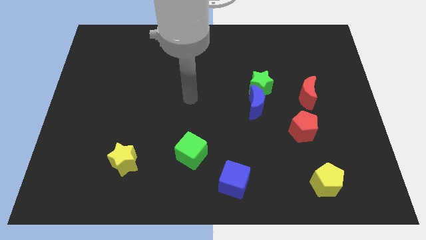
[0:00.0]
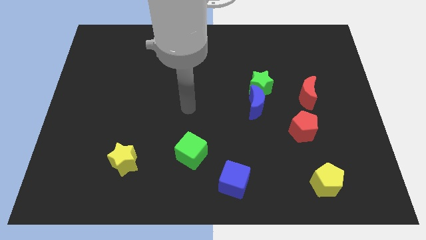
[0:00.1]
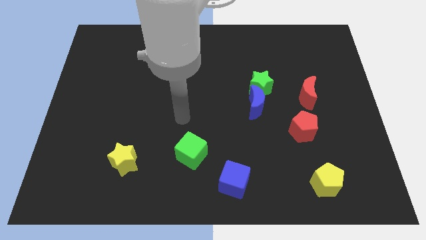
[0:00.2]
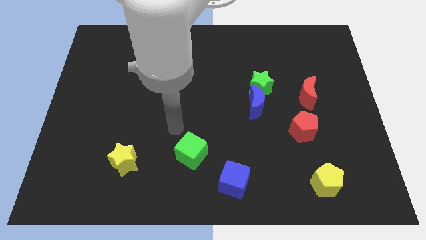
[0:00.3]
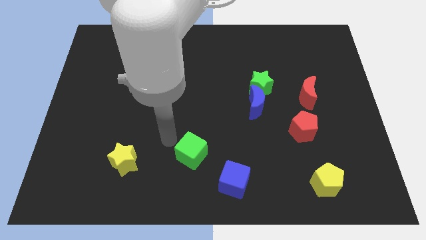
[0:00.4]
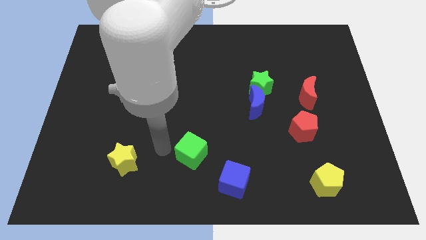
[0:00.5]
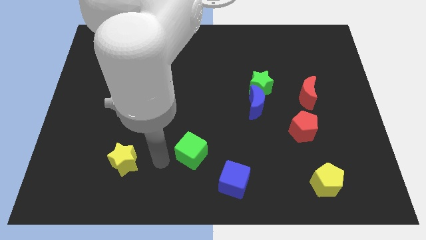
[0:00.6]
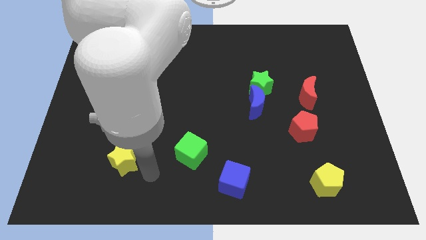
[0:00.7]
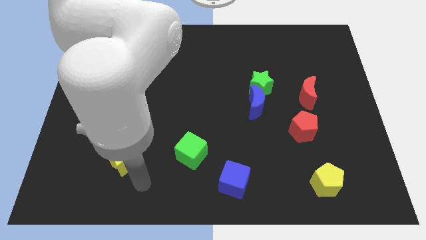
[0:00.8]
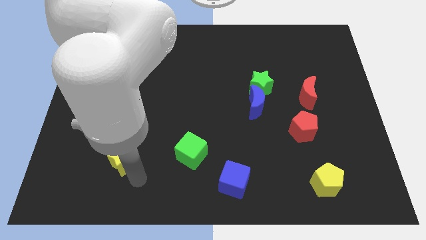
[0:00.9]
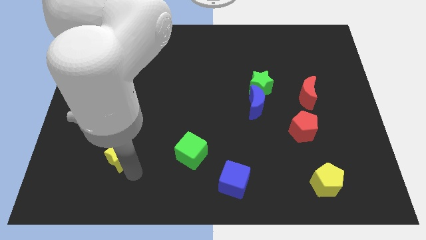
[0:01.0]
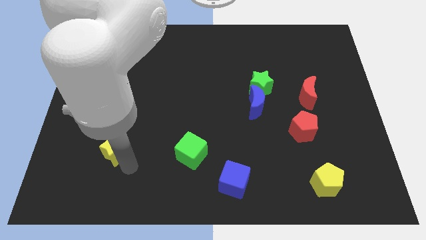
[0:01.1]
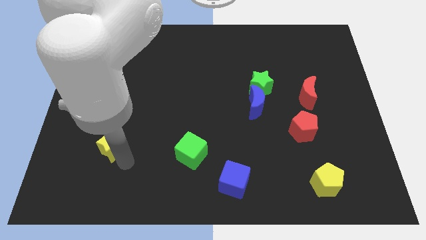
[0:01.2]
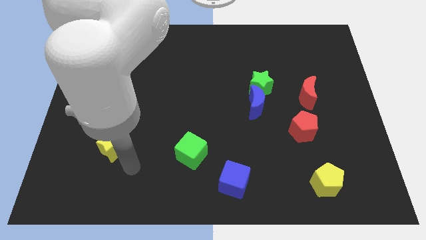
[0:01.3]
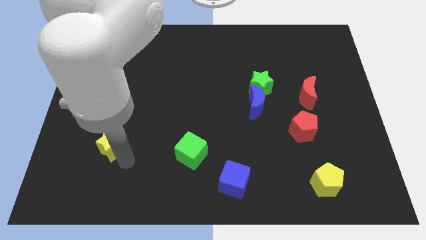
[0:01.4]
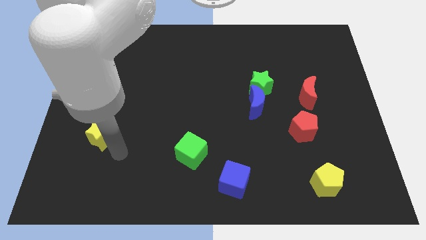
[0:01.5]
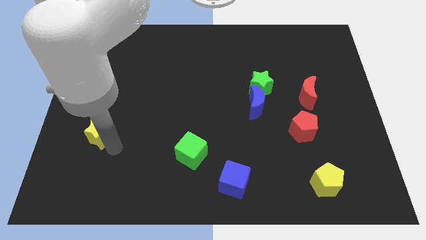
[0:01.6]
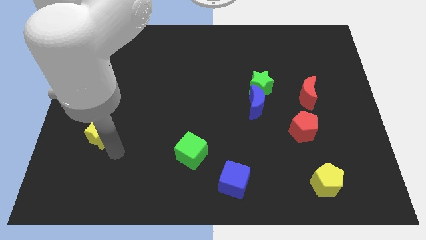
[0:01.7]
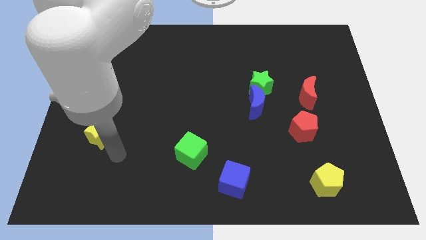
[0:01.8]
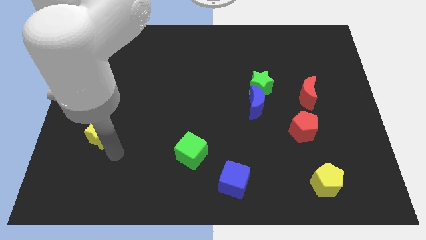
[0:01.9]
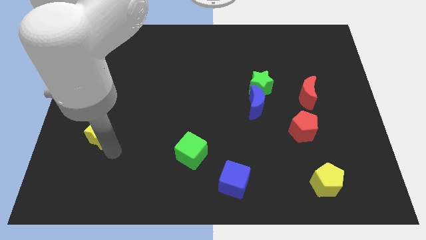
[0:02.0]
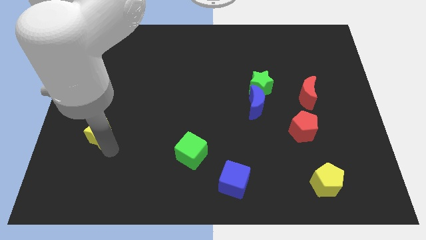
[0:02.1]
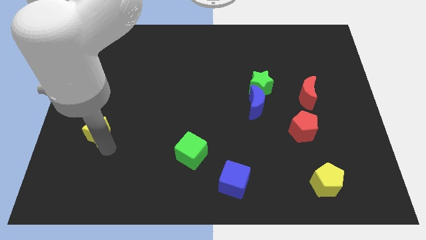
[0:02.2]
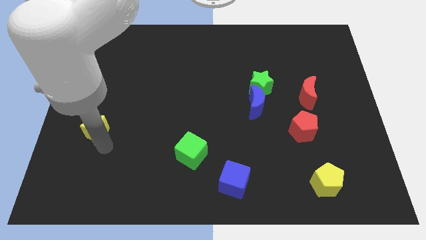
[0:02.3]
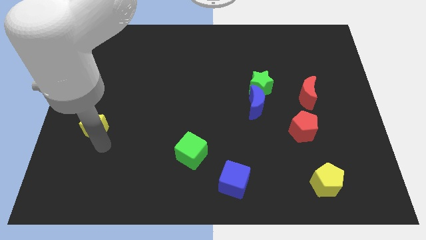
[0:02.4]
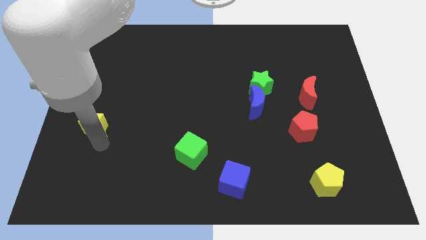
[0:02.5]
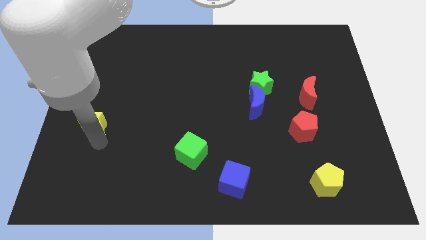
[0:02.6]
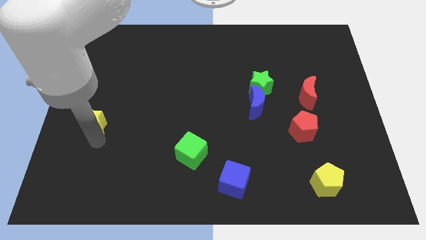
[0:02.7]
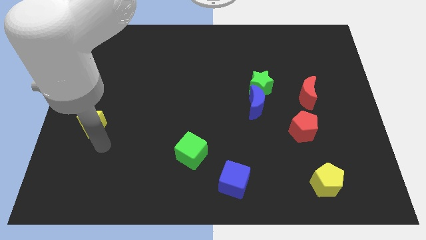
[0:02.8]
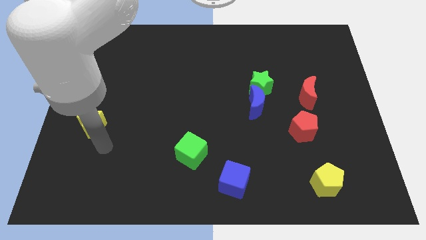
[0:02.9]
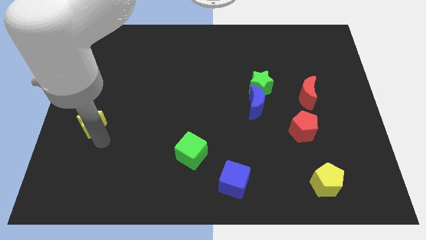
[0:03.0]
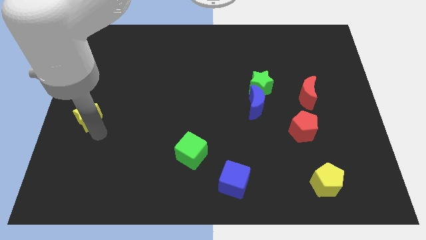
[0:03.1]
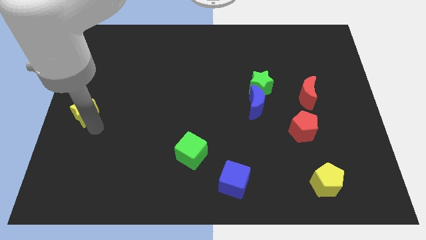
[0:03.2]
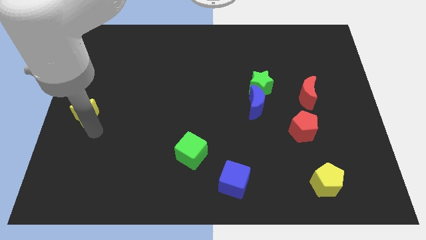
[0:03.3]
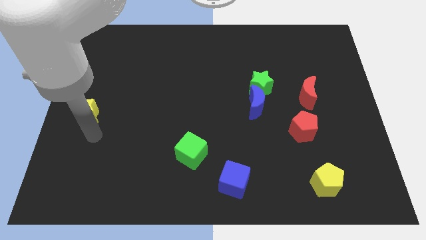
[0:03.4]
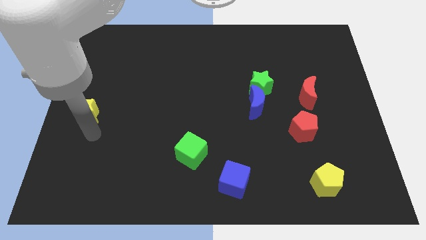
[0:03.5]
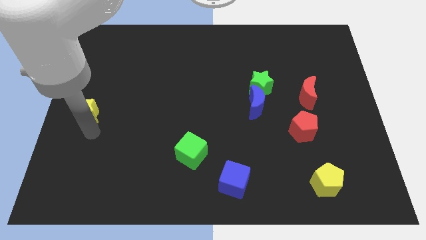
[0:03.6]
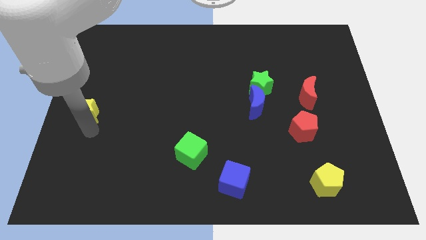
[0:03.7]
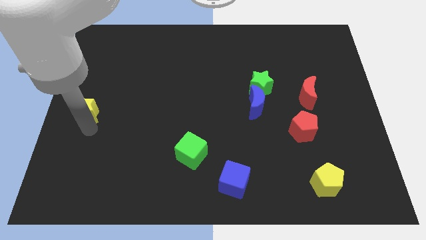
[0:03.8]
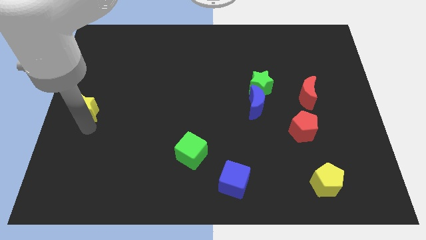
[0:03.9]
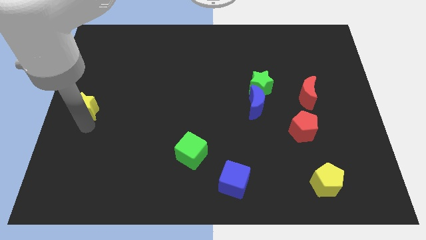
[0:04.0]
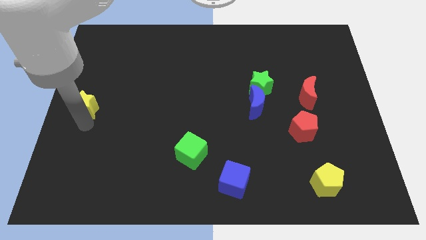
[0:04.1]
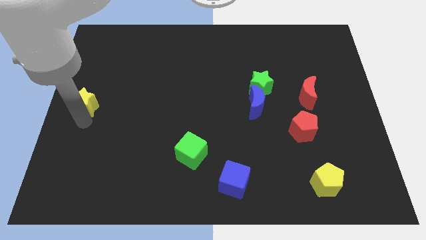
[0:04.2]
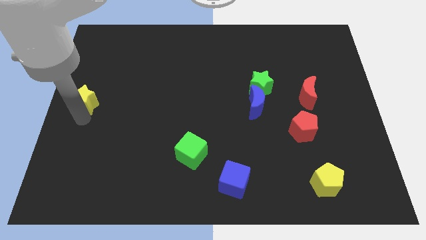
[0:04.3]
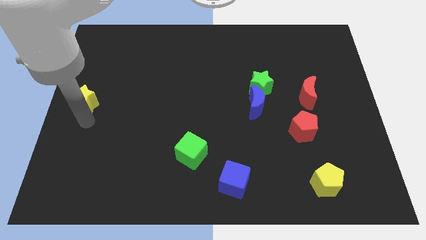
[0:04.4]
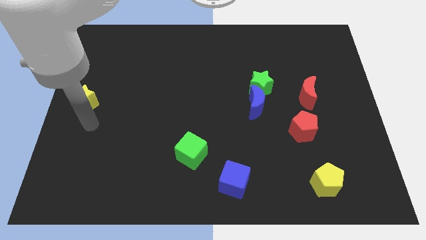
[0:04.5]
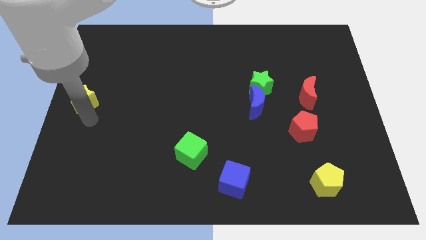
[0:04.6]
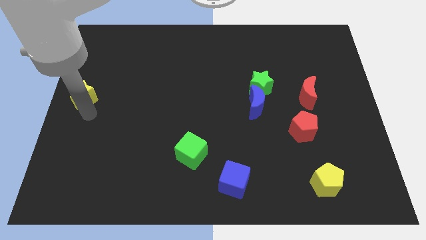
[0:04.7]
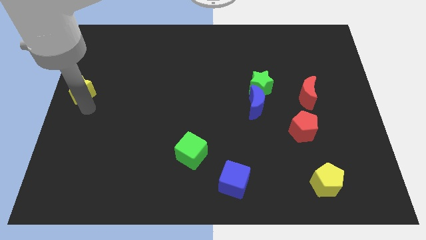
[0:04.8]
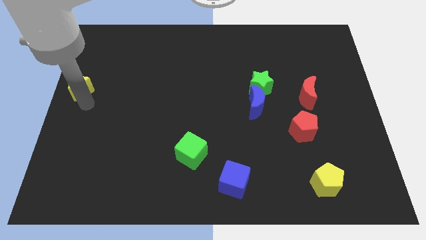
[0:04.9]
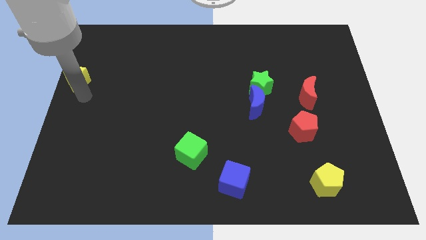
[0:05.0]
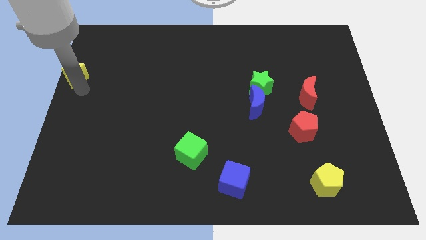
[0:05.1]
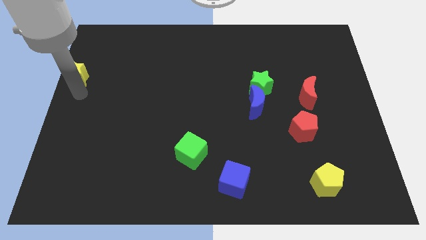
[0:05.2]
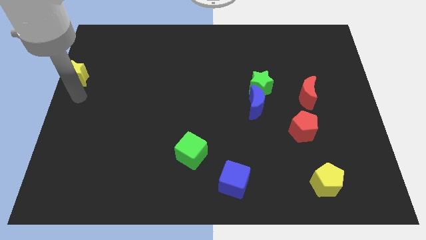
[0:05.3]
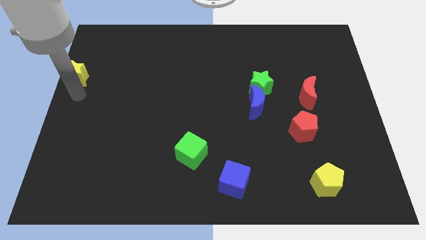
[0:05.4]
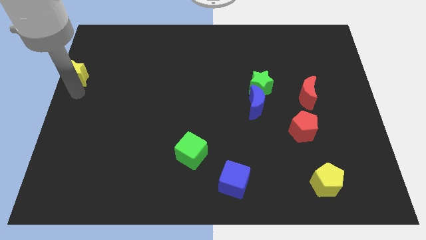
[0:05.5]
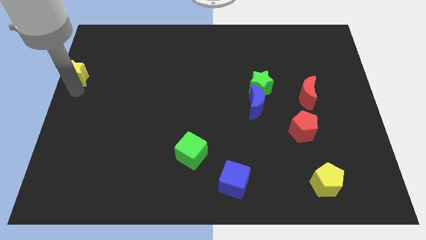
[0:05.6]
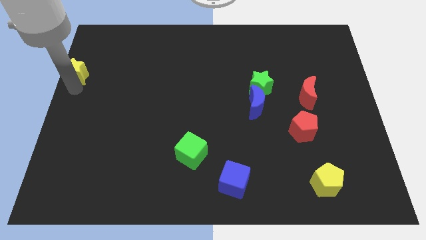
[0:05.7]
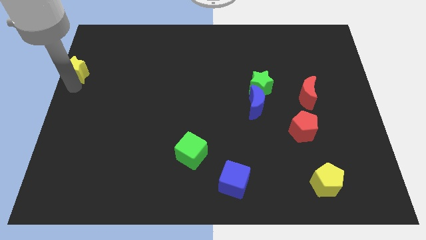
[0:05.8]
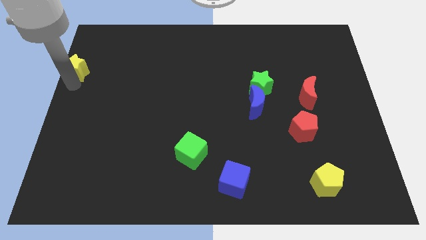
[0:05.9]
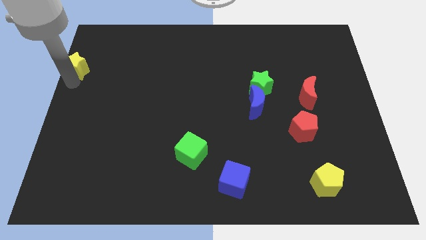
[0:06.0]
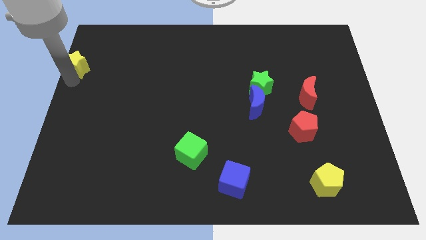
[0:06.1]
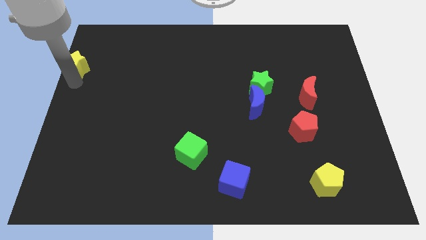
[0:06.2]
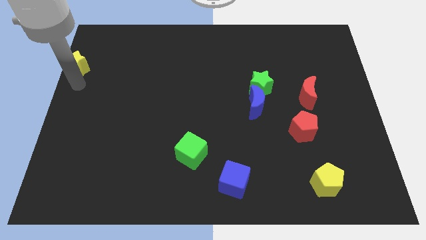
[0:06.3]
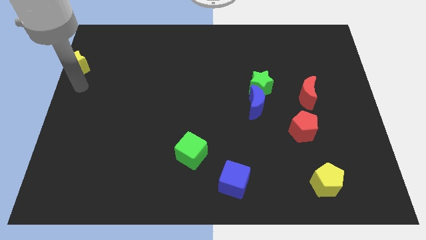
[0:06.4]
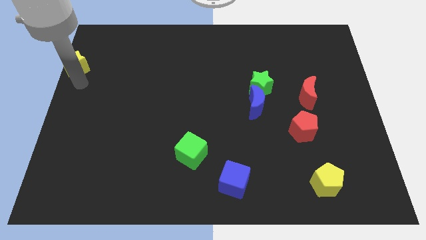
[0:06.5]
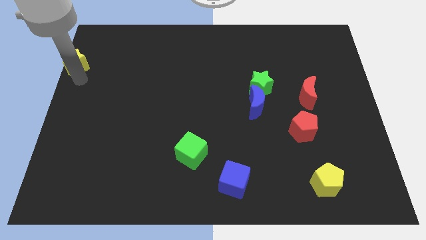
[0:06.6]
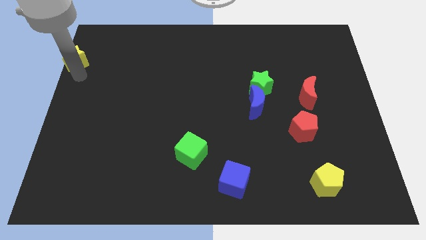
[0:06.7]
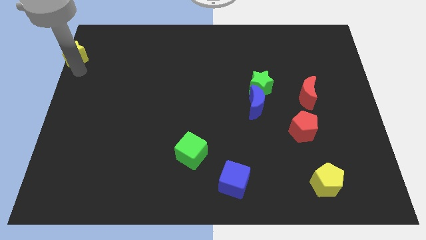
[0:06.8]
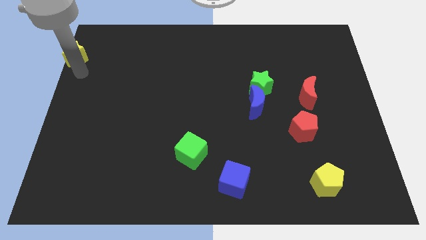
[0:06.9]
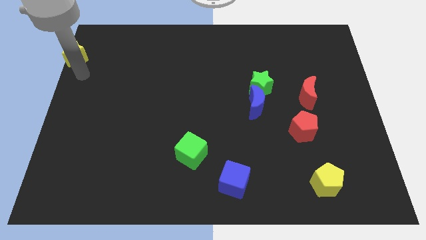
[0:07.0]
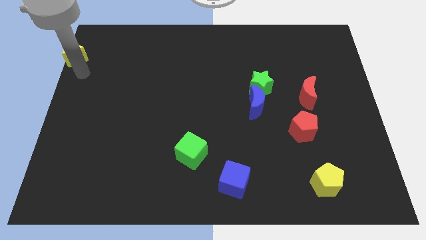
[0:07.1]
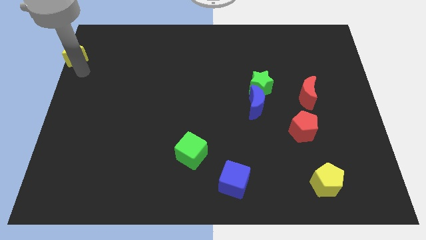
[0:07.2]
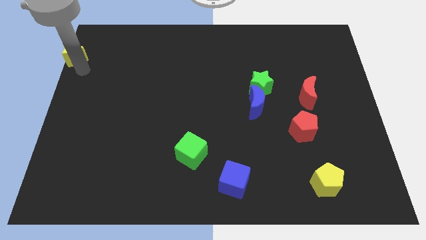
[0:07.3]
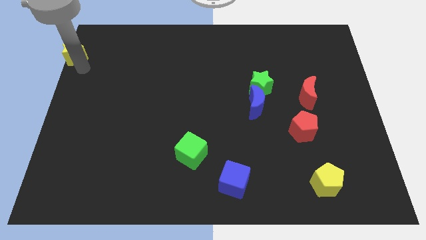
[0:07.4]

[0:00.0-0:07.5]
push the yellow star to the upper left corner
